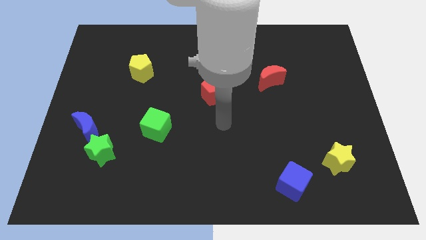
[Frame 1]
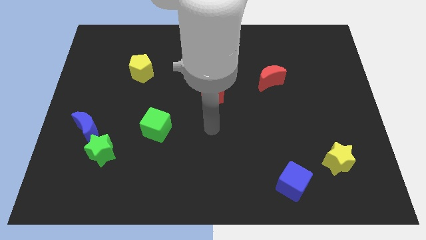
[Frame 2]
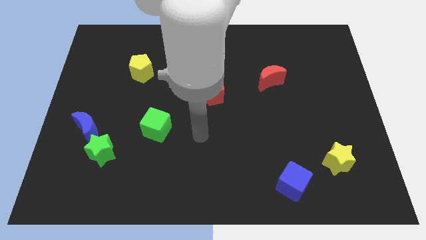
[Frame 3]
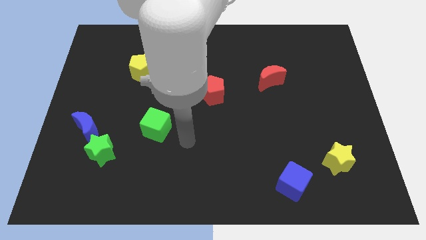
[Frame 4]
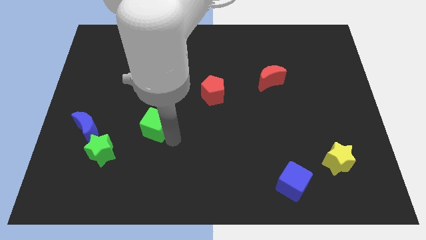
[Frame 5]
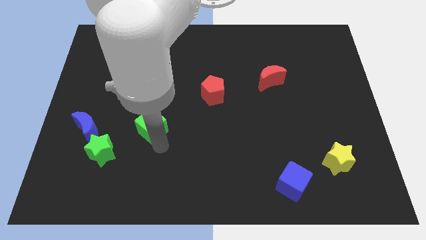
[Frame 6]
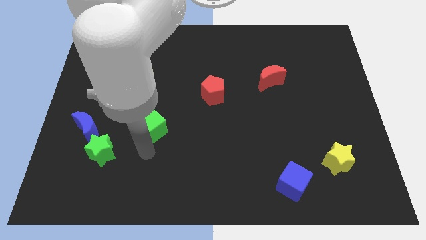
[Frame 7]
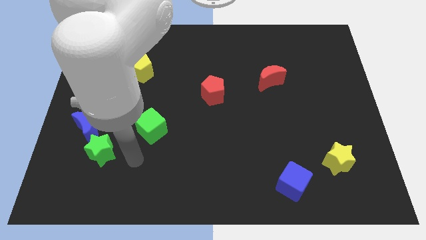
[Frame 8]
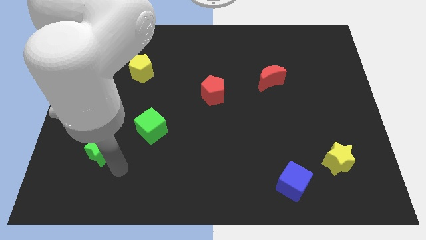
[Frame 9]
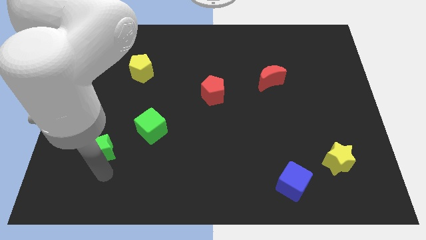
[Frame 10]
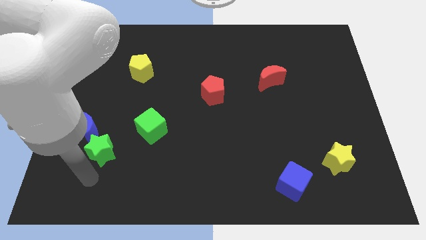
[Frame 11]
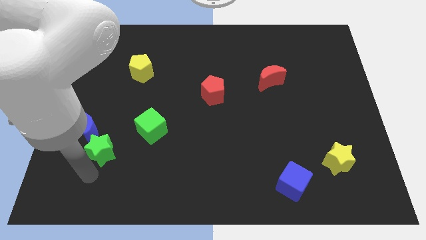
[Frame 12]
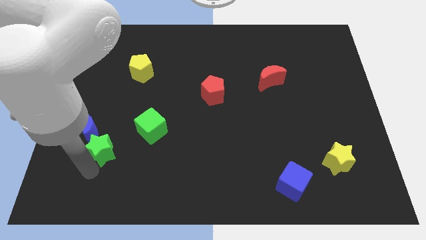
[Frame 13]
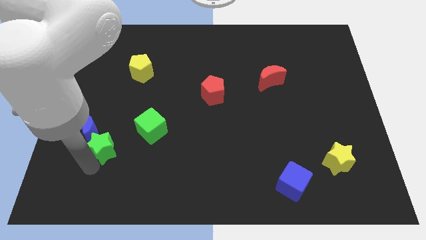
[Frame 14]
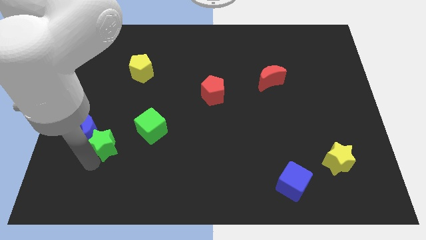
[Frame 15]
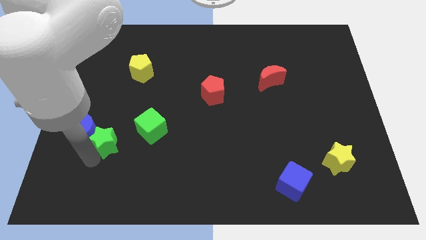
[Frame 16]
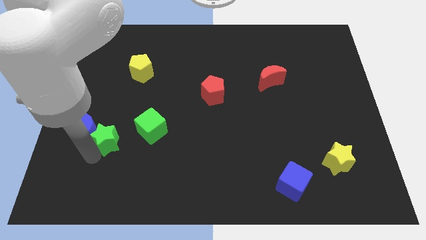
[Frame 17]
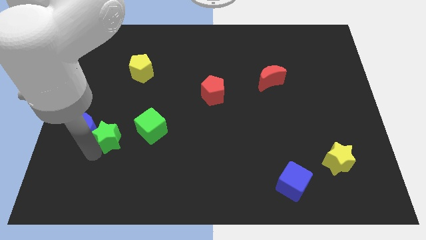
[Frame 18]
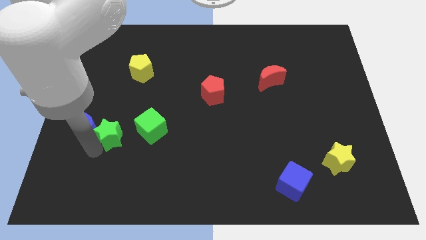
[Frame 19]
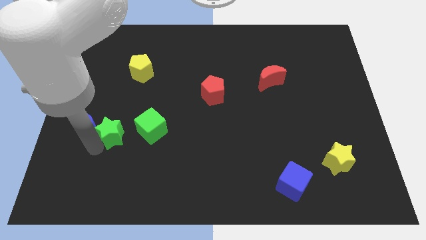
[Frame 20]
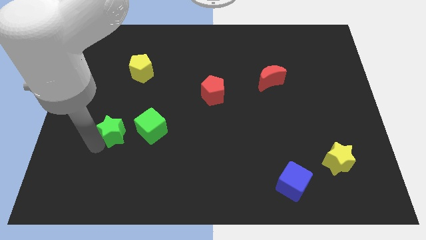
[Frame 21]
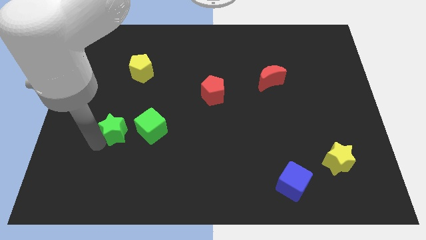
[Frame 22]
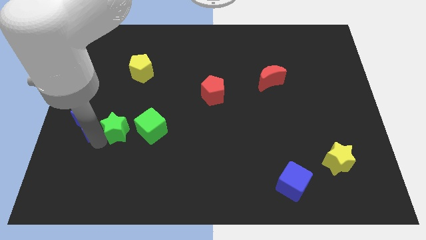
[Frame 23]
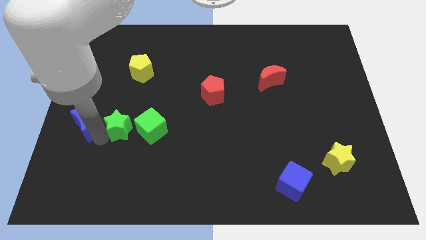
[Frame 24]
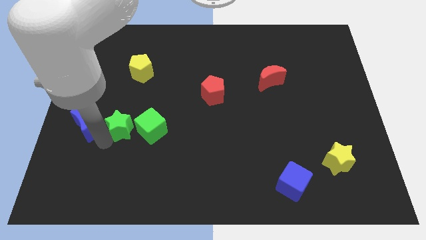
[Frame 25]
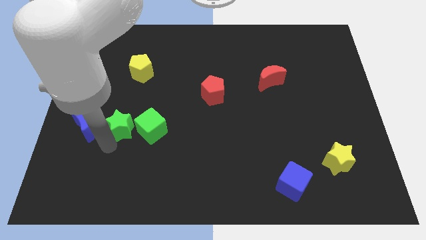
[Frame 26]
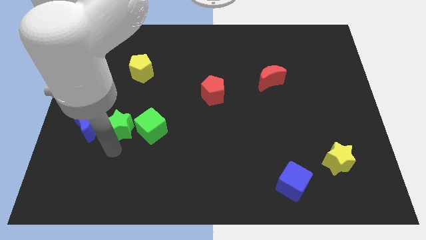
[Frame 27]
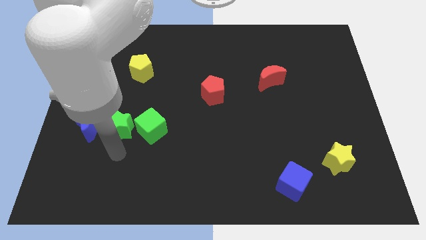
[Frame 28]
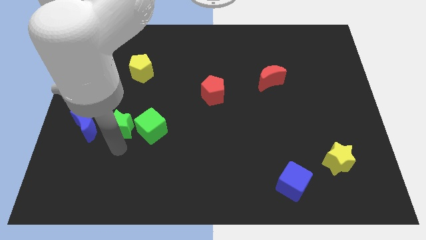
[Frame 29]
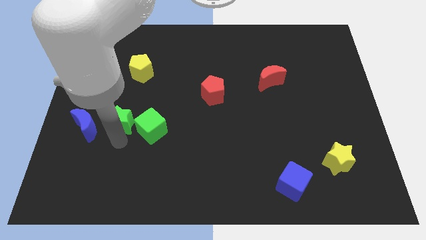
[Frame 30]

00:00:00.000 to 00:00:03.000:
push the green star slightly up

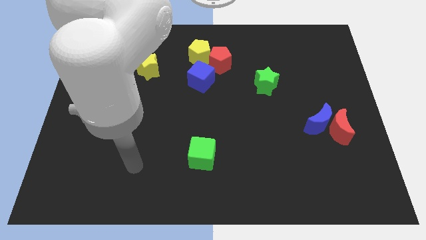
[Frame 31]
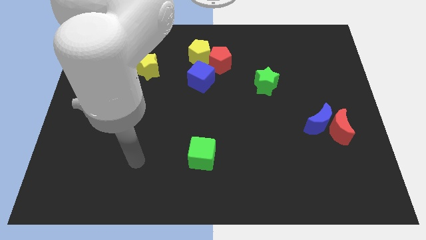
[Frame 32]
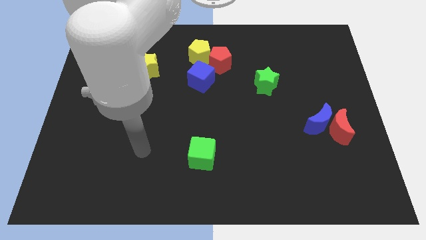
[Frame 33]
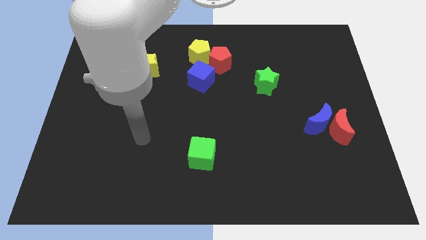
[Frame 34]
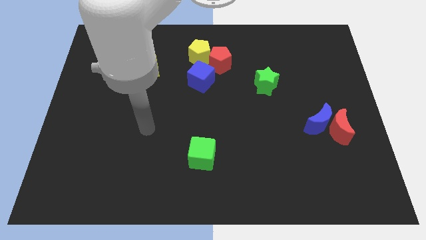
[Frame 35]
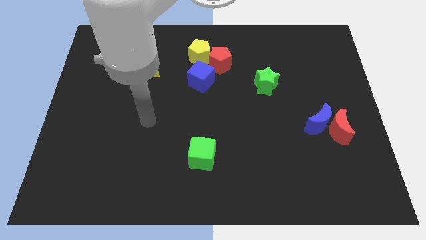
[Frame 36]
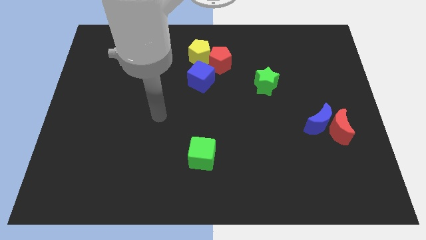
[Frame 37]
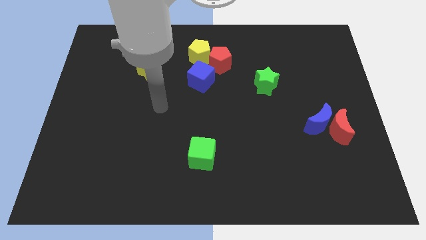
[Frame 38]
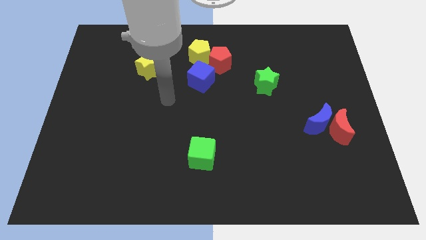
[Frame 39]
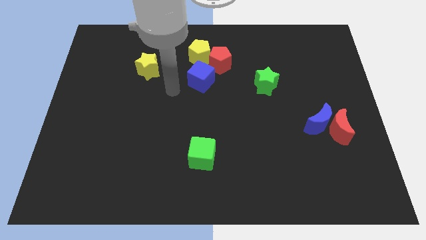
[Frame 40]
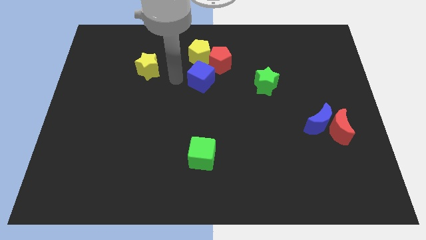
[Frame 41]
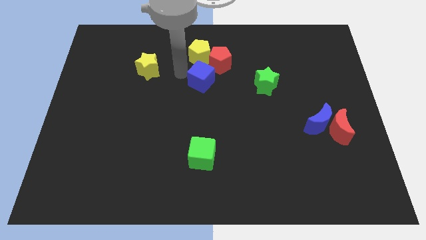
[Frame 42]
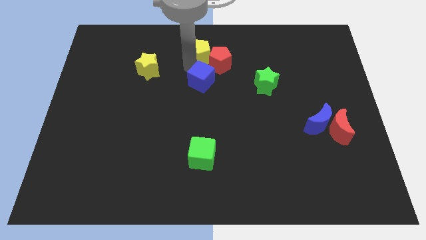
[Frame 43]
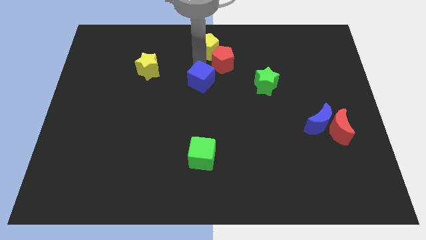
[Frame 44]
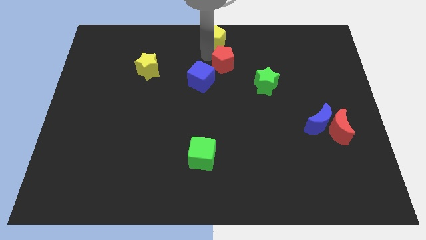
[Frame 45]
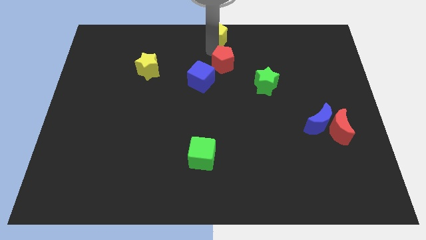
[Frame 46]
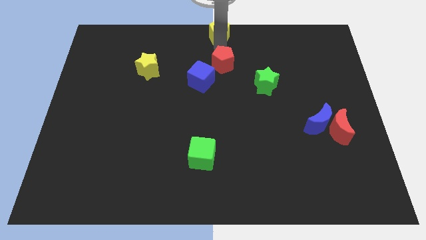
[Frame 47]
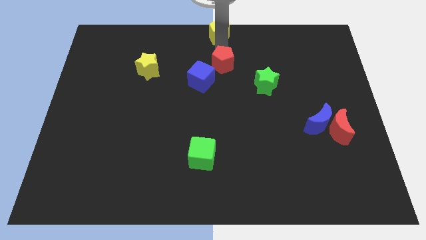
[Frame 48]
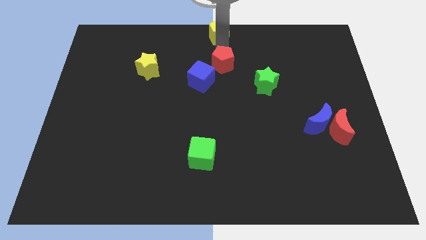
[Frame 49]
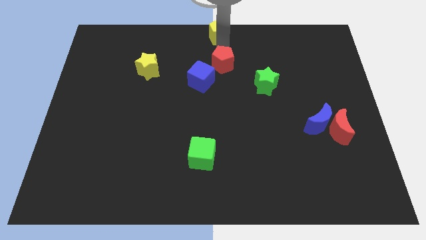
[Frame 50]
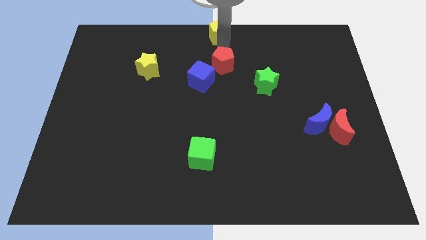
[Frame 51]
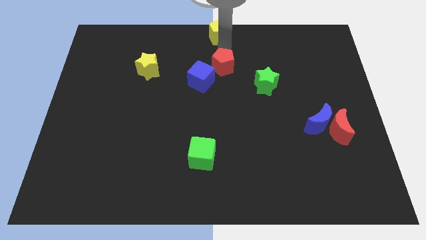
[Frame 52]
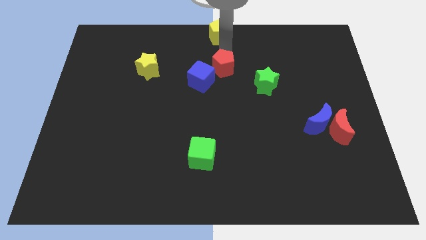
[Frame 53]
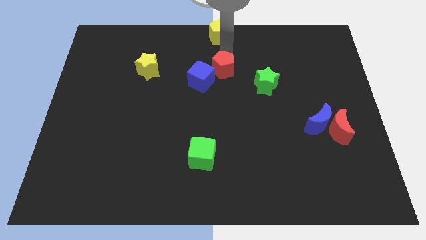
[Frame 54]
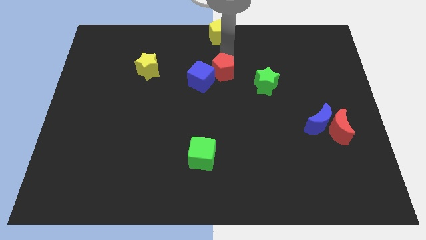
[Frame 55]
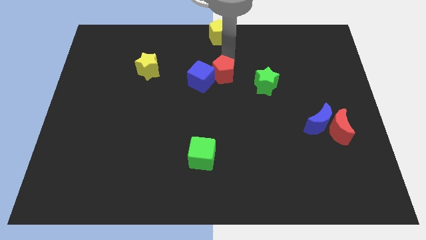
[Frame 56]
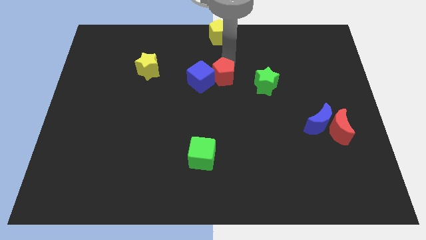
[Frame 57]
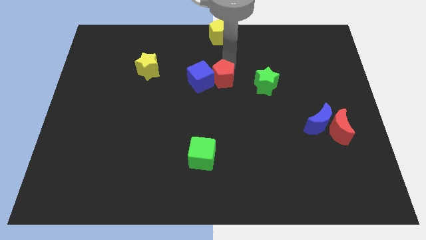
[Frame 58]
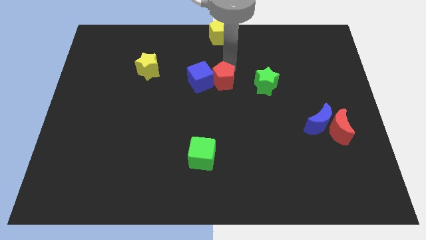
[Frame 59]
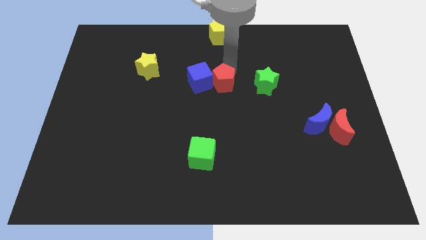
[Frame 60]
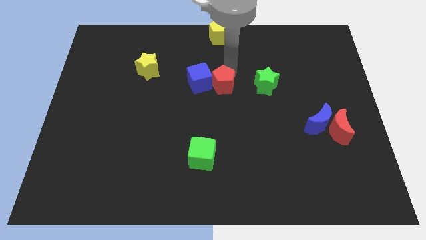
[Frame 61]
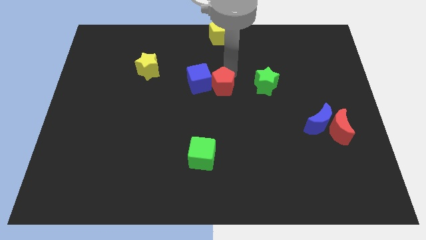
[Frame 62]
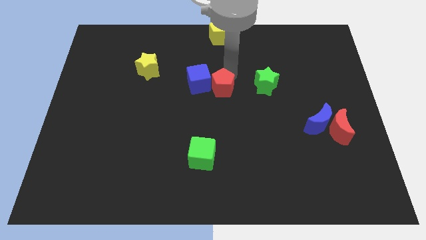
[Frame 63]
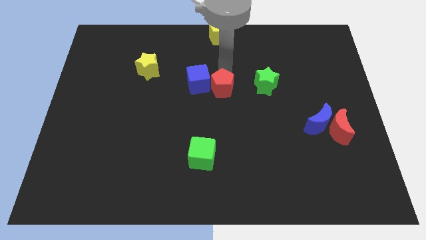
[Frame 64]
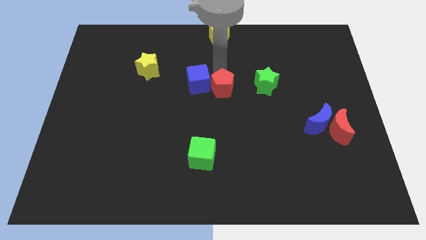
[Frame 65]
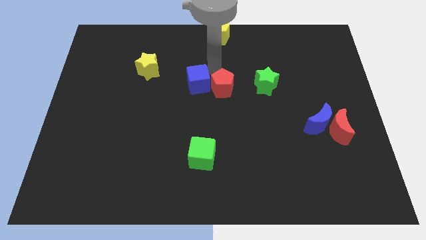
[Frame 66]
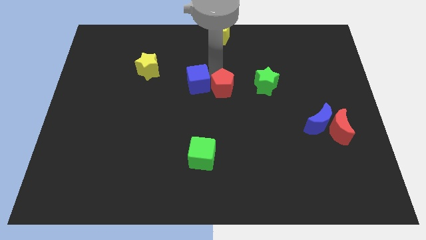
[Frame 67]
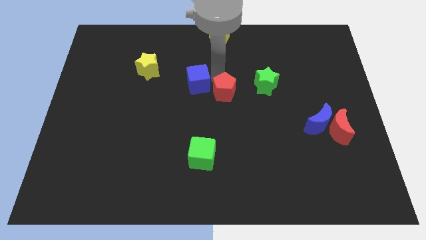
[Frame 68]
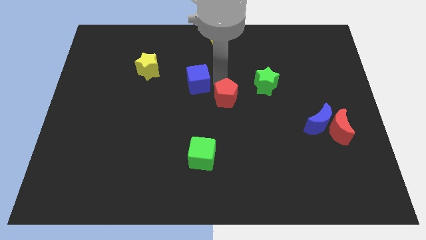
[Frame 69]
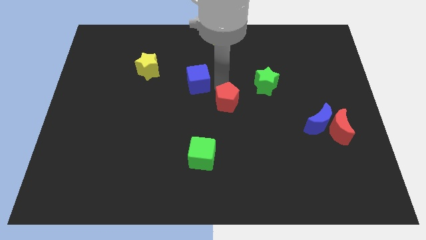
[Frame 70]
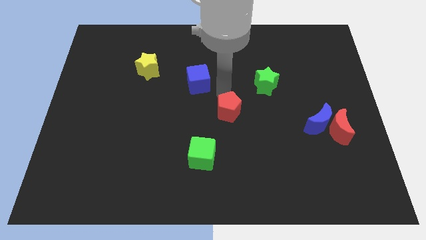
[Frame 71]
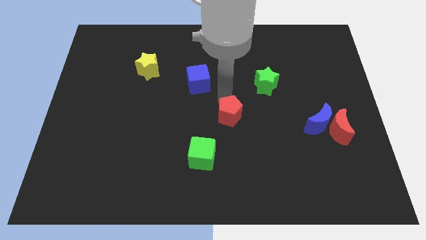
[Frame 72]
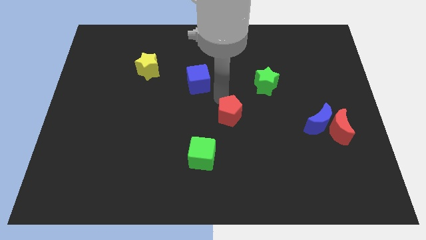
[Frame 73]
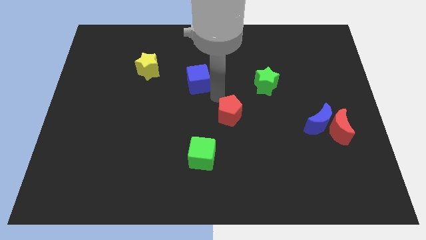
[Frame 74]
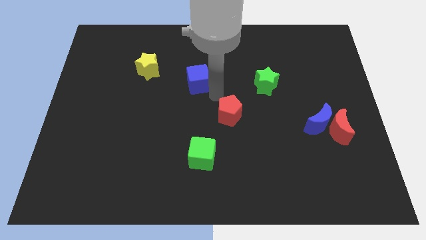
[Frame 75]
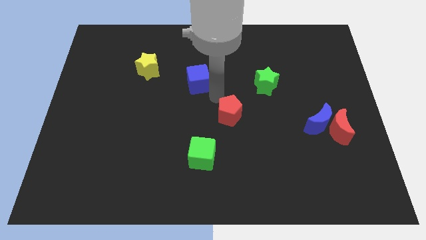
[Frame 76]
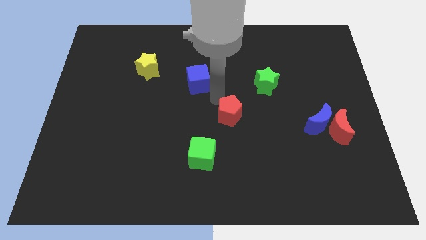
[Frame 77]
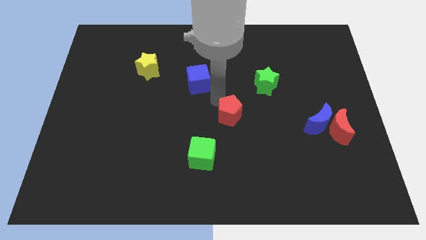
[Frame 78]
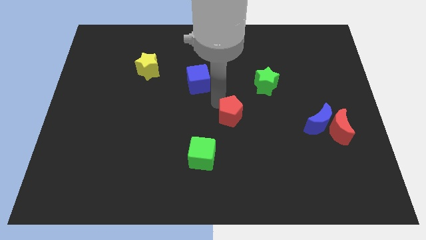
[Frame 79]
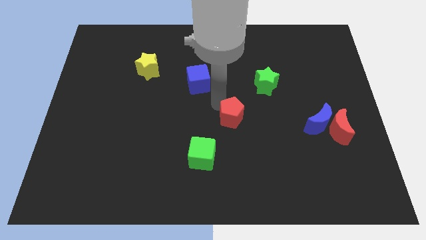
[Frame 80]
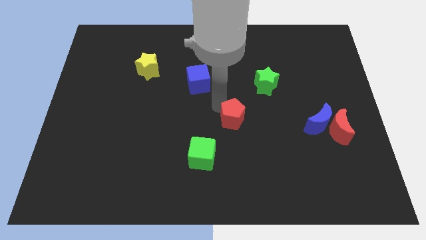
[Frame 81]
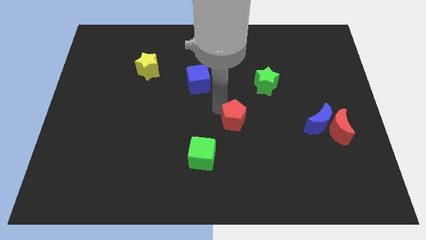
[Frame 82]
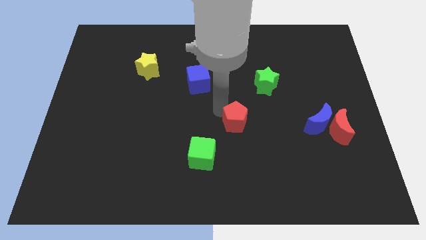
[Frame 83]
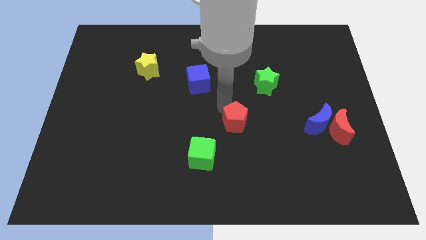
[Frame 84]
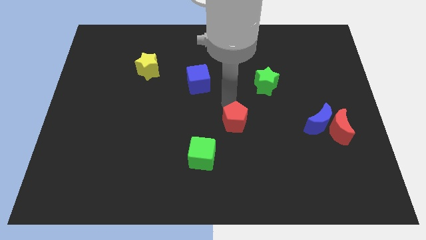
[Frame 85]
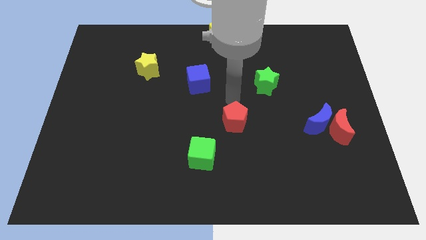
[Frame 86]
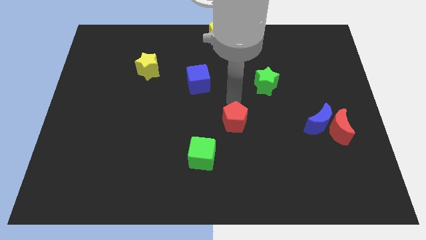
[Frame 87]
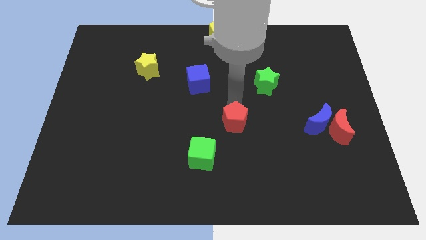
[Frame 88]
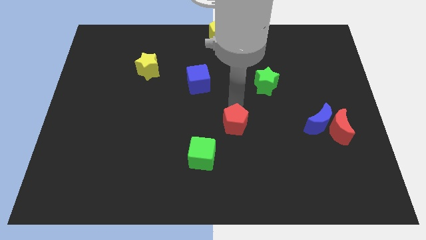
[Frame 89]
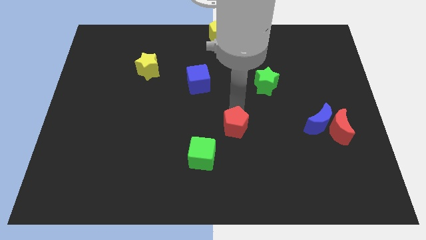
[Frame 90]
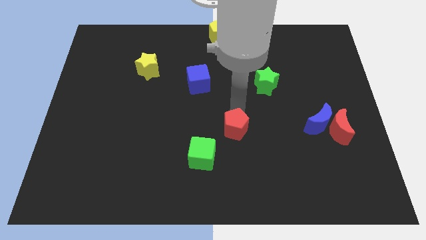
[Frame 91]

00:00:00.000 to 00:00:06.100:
move the red pentagon downwards
